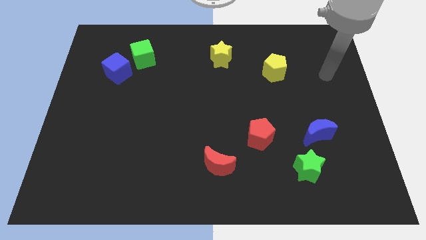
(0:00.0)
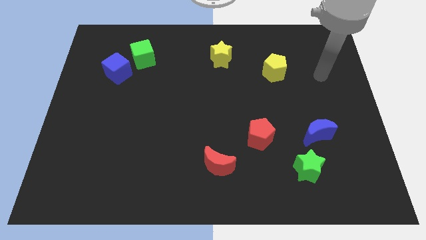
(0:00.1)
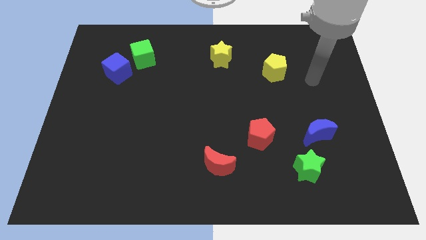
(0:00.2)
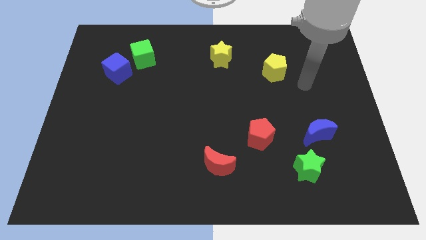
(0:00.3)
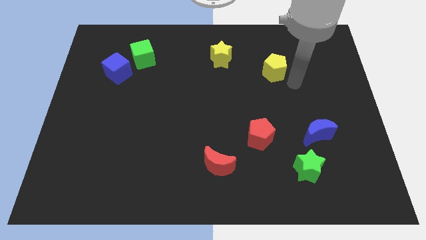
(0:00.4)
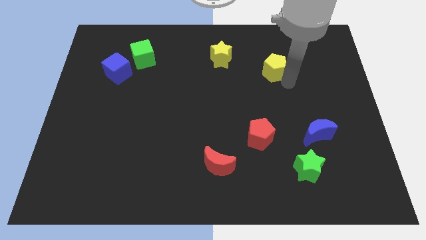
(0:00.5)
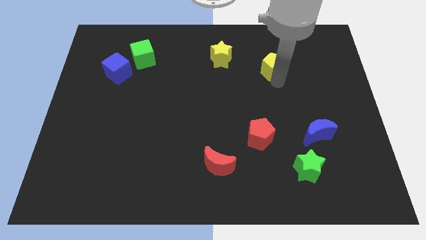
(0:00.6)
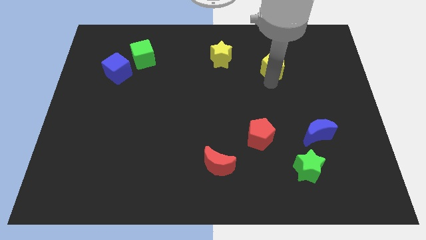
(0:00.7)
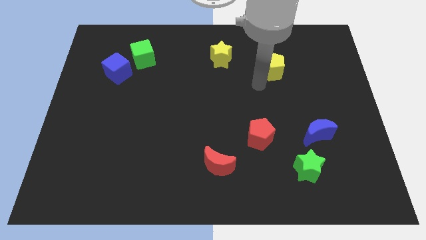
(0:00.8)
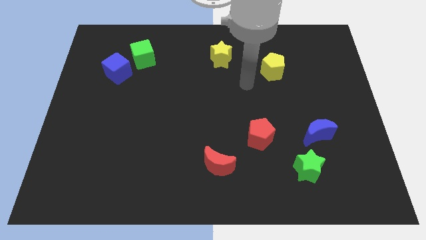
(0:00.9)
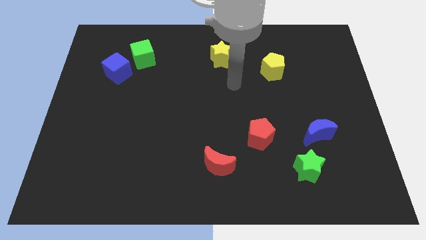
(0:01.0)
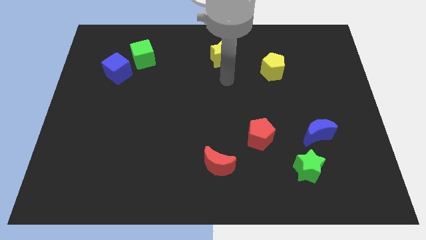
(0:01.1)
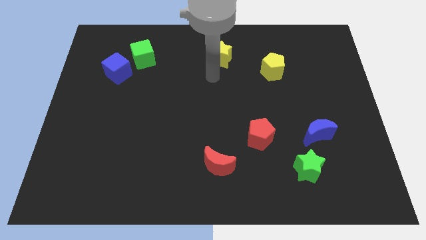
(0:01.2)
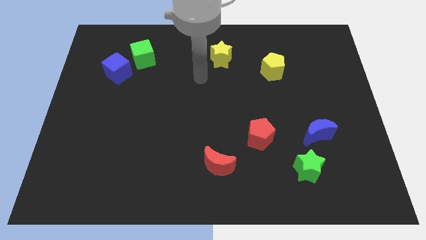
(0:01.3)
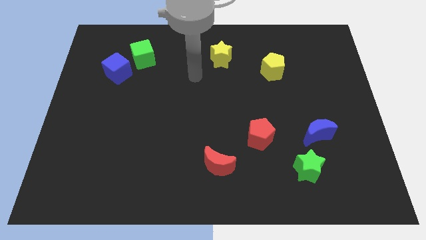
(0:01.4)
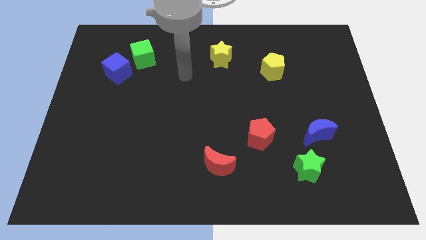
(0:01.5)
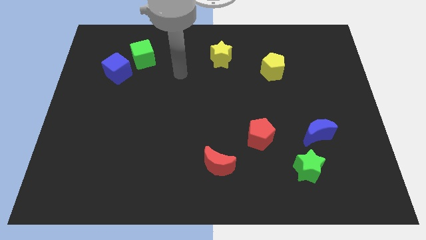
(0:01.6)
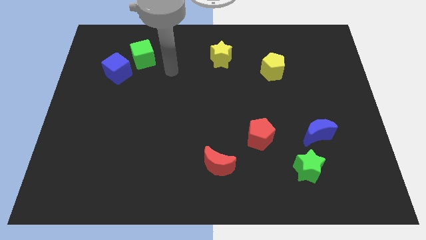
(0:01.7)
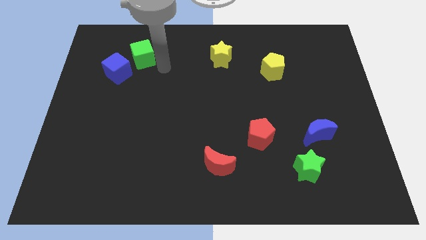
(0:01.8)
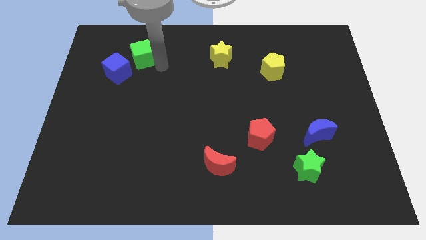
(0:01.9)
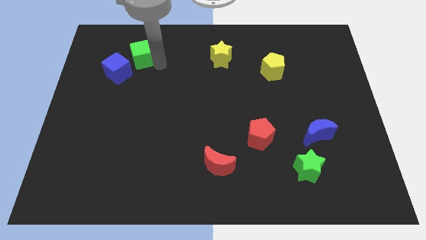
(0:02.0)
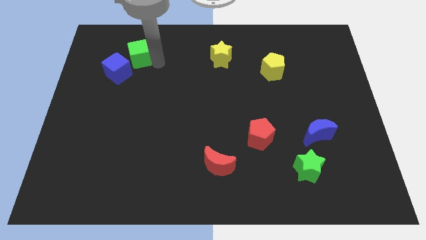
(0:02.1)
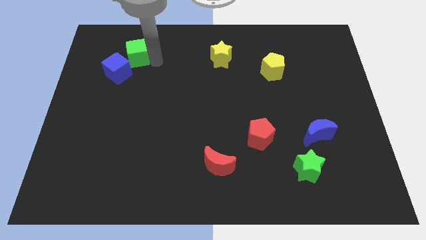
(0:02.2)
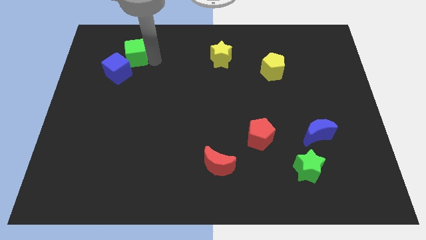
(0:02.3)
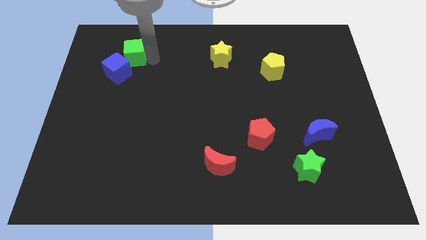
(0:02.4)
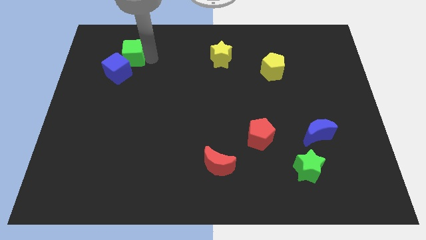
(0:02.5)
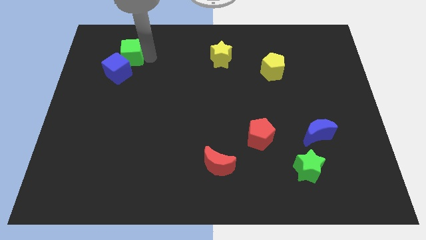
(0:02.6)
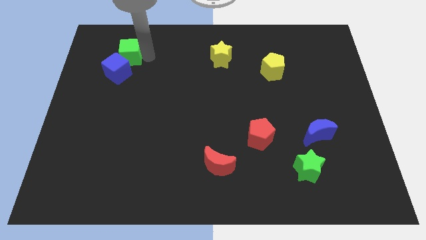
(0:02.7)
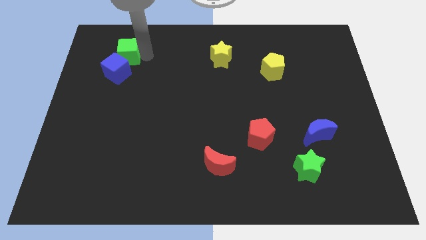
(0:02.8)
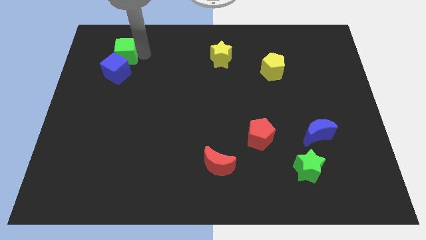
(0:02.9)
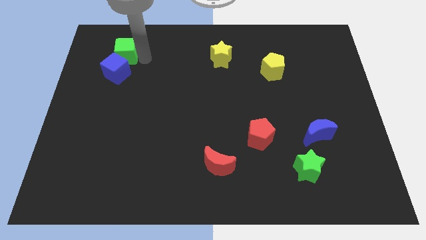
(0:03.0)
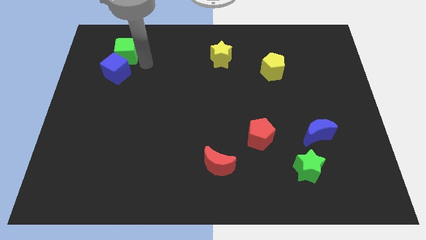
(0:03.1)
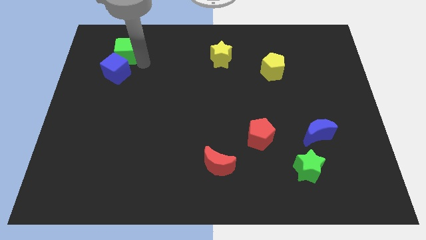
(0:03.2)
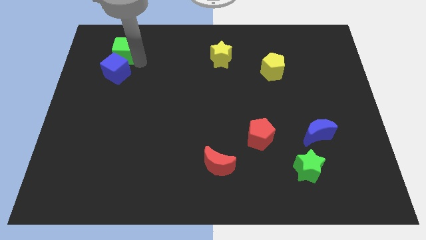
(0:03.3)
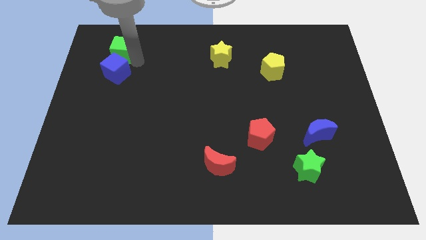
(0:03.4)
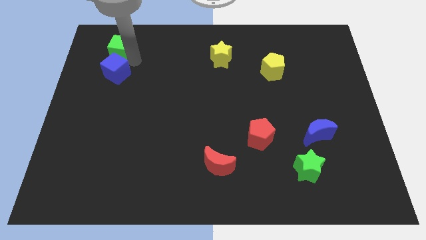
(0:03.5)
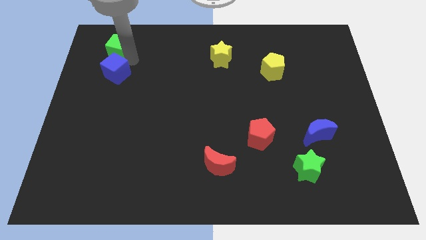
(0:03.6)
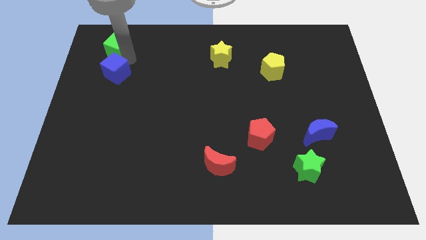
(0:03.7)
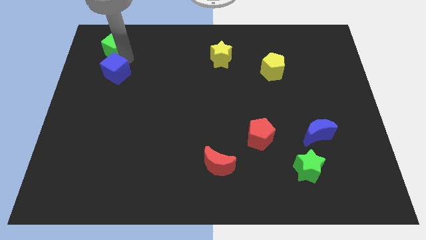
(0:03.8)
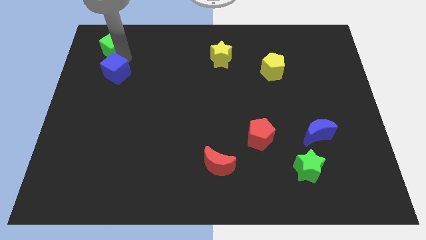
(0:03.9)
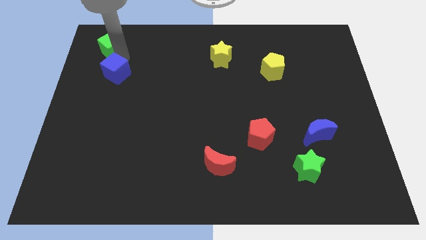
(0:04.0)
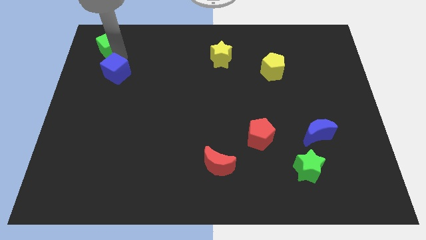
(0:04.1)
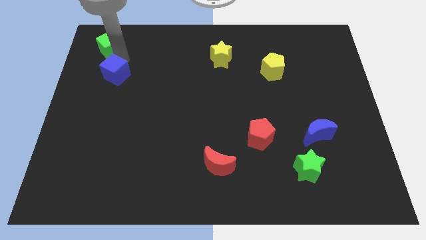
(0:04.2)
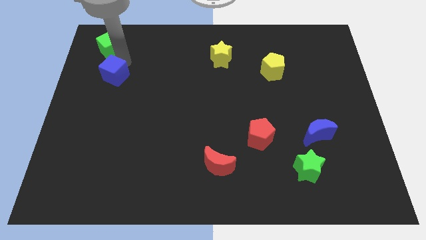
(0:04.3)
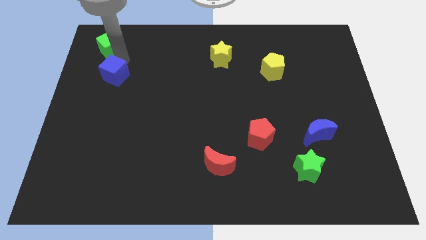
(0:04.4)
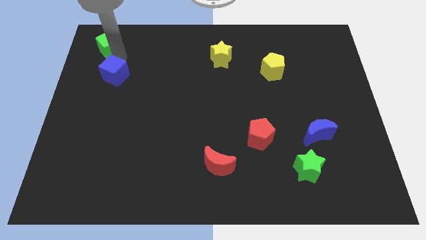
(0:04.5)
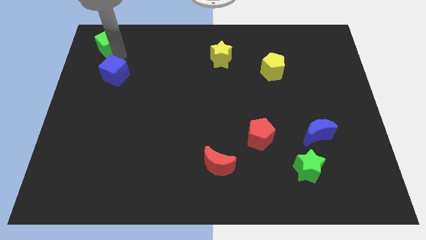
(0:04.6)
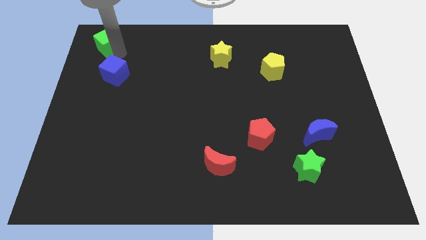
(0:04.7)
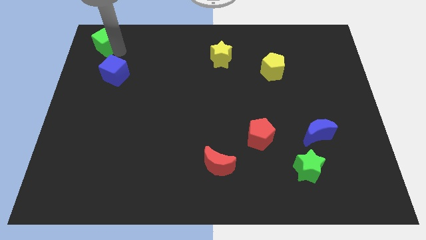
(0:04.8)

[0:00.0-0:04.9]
slide the green cube to the top left of the board

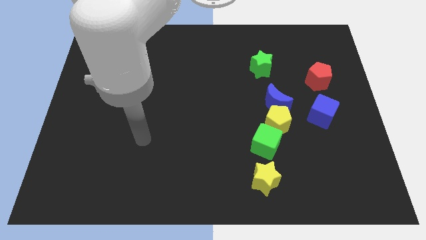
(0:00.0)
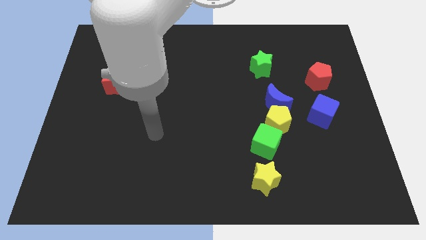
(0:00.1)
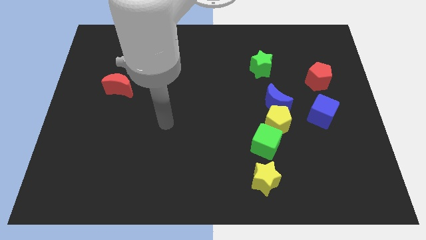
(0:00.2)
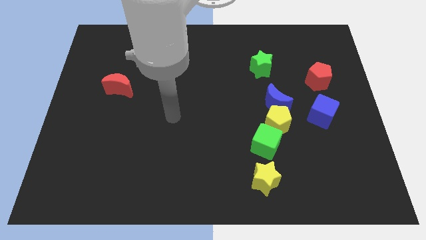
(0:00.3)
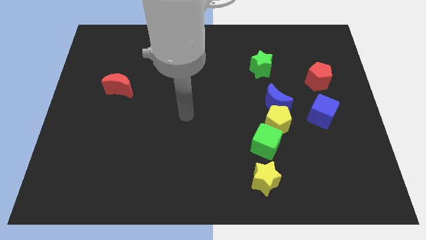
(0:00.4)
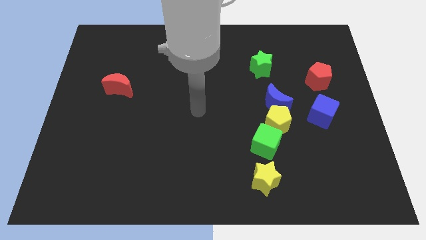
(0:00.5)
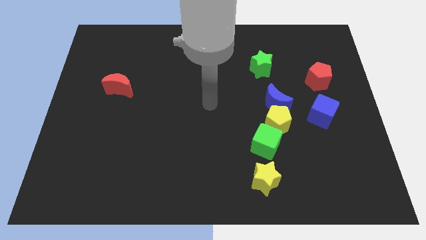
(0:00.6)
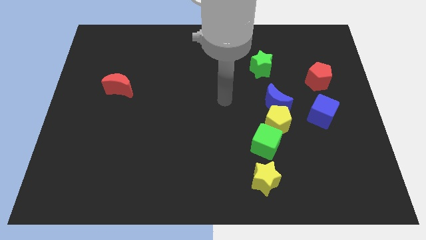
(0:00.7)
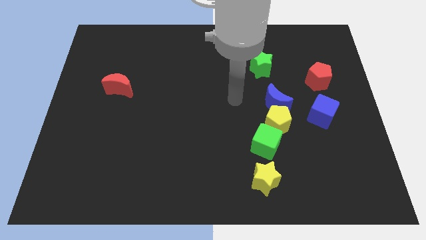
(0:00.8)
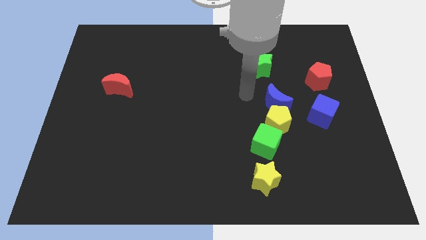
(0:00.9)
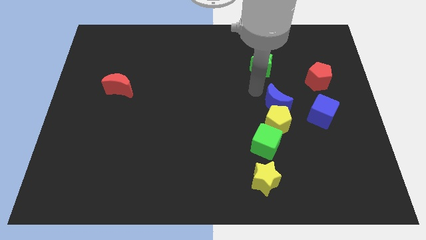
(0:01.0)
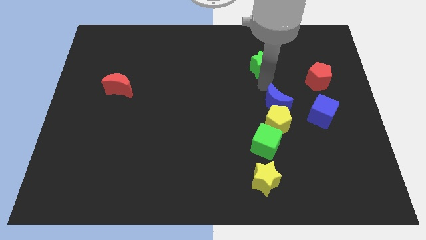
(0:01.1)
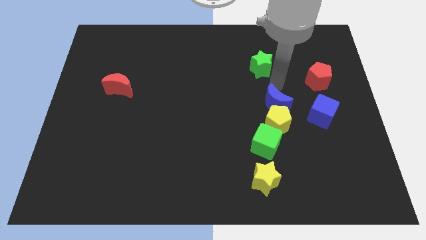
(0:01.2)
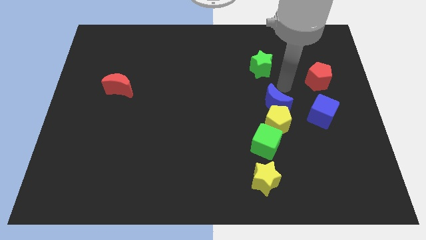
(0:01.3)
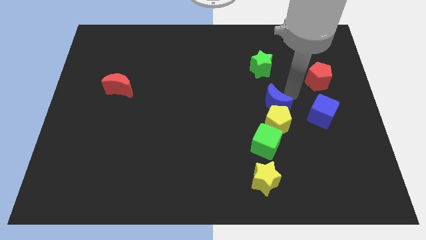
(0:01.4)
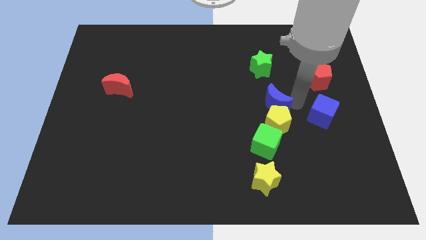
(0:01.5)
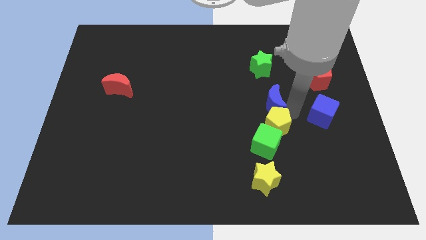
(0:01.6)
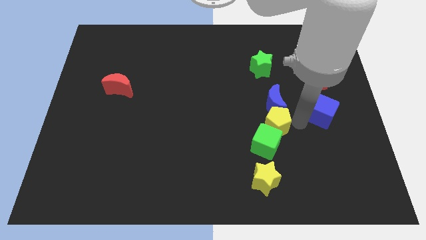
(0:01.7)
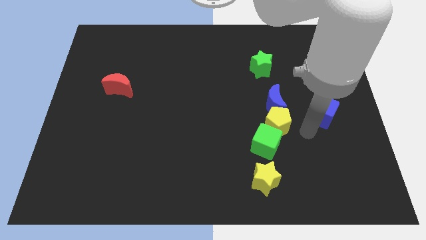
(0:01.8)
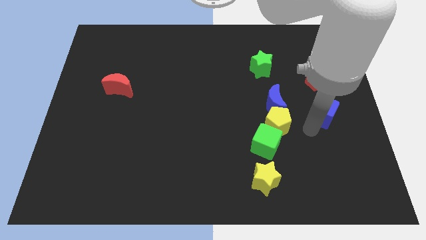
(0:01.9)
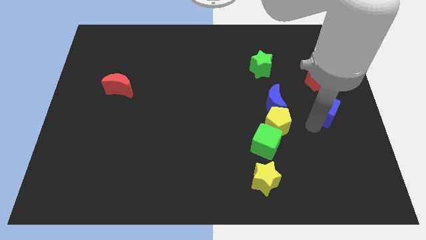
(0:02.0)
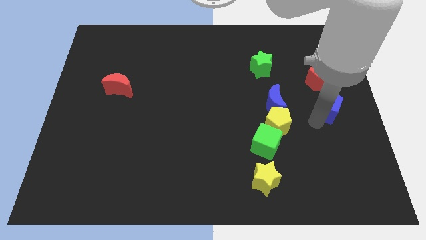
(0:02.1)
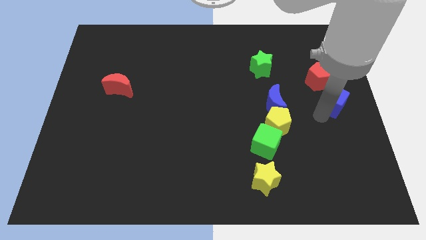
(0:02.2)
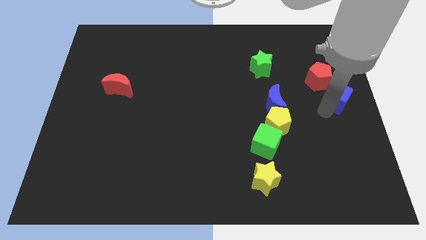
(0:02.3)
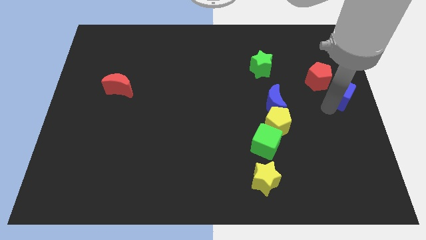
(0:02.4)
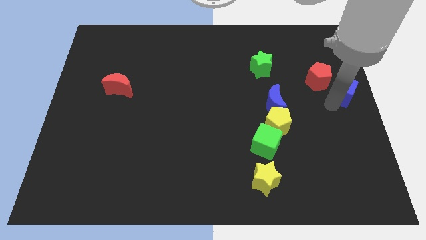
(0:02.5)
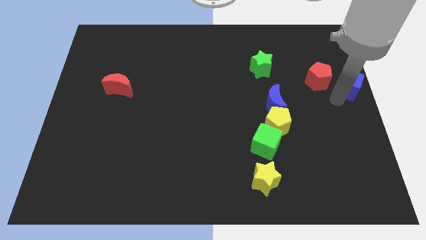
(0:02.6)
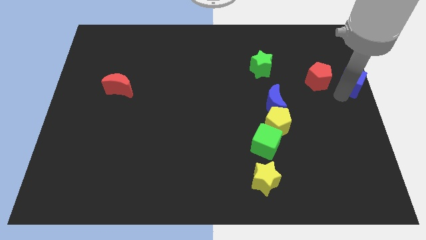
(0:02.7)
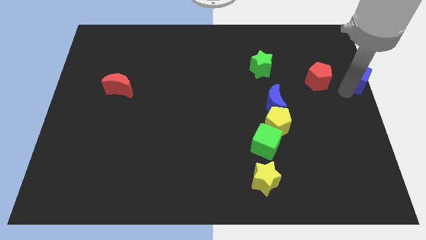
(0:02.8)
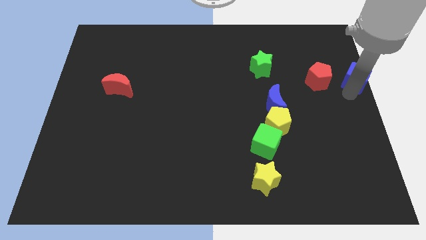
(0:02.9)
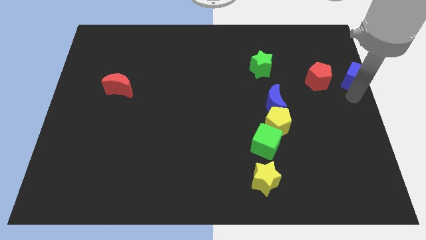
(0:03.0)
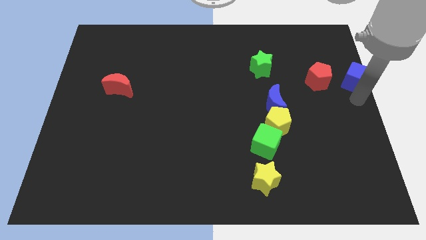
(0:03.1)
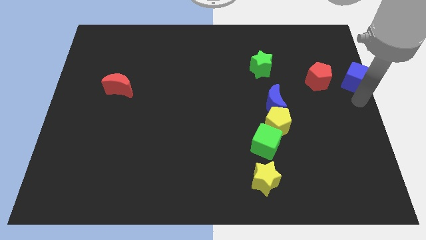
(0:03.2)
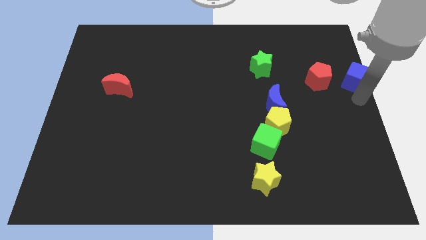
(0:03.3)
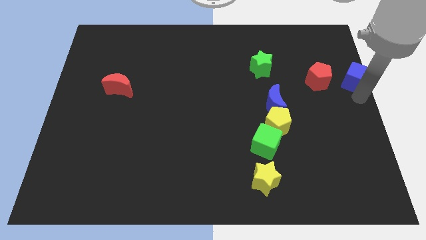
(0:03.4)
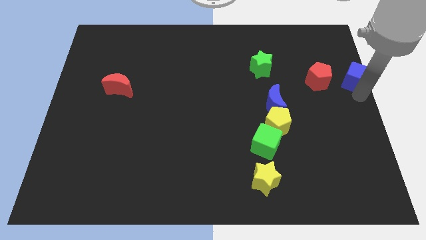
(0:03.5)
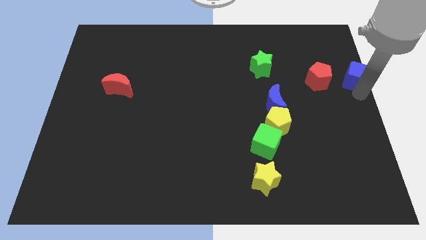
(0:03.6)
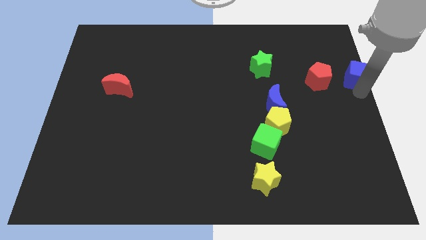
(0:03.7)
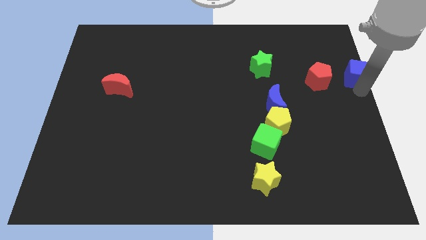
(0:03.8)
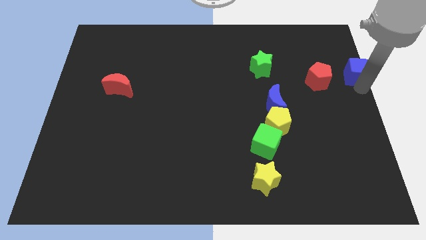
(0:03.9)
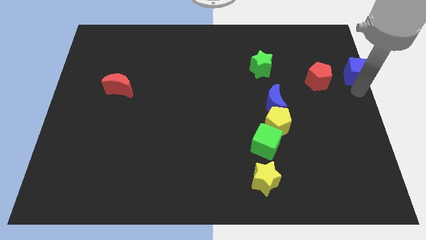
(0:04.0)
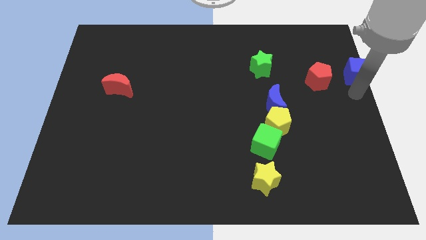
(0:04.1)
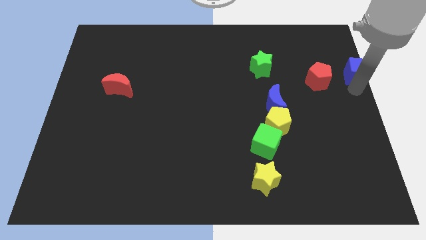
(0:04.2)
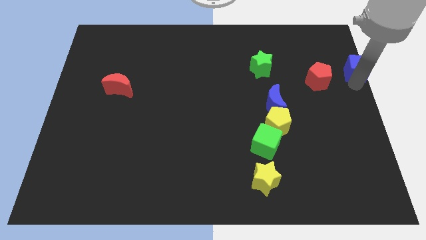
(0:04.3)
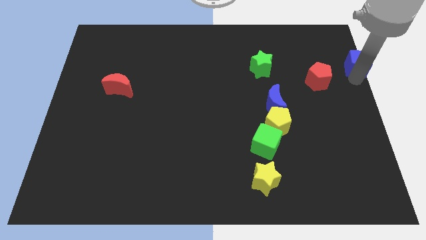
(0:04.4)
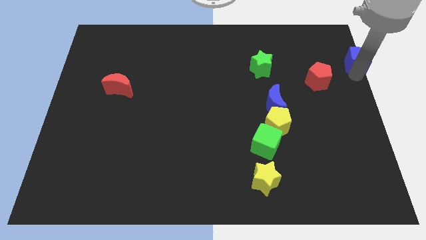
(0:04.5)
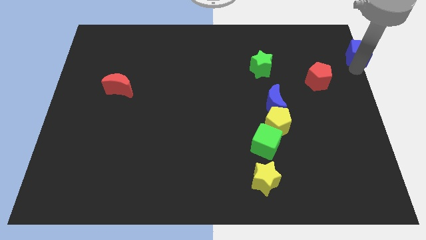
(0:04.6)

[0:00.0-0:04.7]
move the blue cube to the upper right corner
